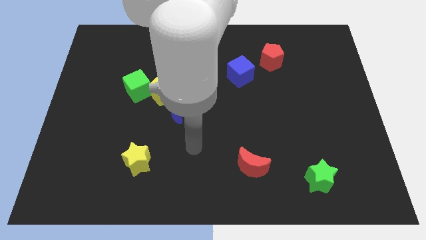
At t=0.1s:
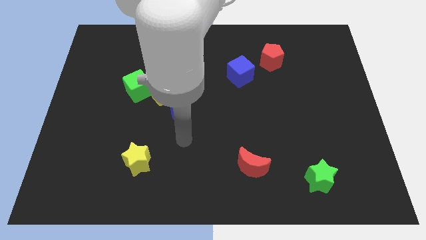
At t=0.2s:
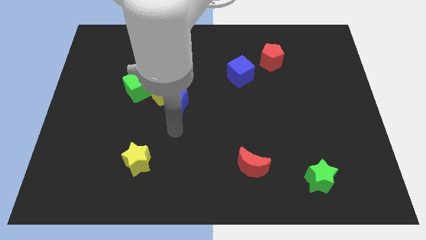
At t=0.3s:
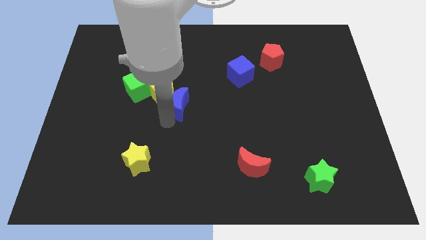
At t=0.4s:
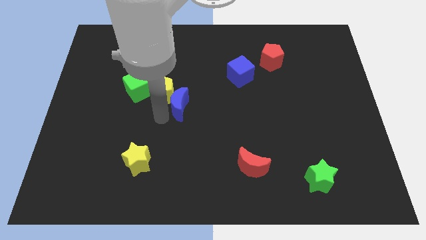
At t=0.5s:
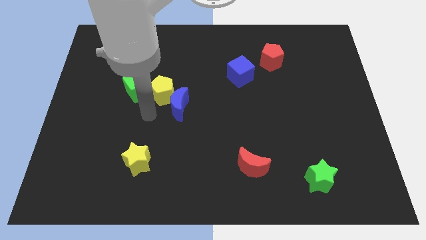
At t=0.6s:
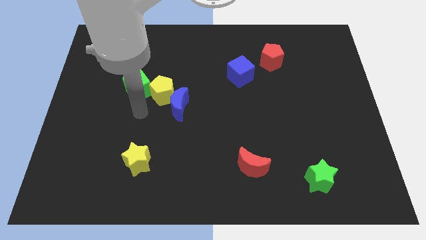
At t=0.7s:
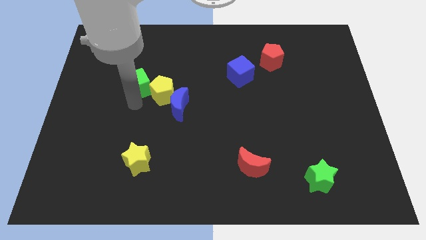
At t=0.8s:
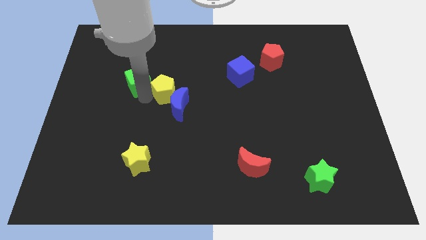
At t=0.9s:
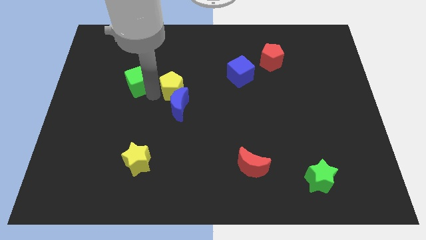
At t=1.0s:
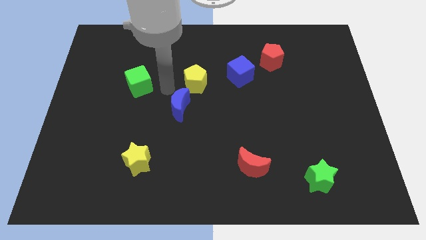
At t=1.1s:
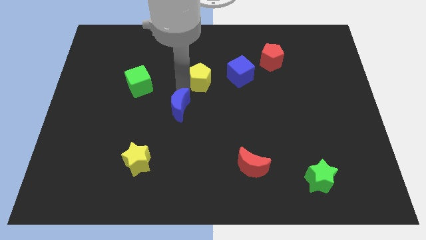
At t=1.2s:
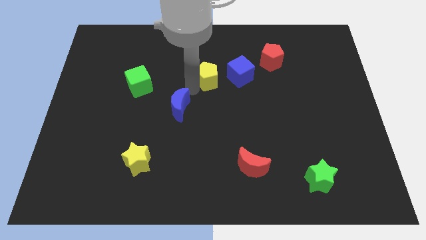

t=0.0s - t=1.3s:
pull the blue moon apart from the yellow pentagon

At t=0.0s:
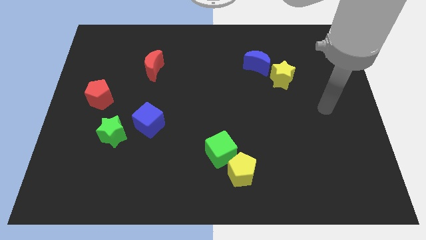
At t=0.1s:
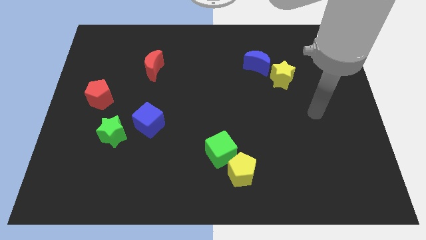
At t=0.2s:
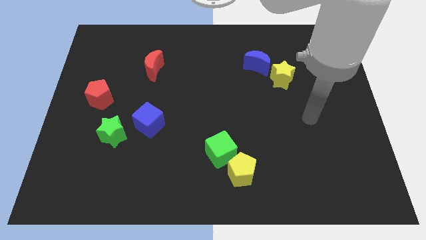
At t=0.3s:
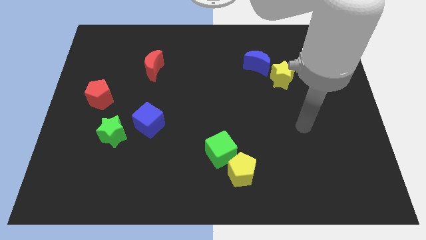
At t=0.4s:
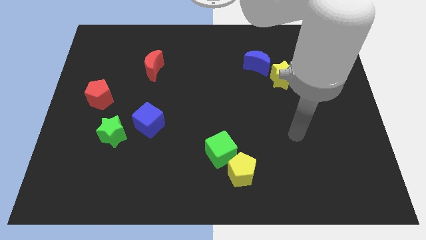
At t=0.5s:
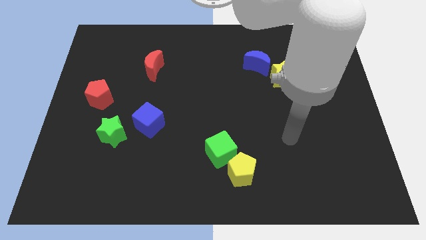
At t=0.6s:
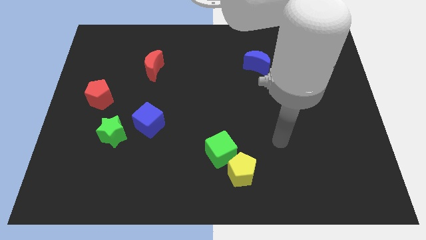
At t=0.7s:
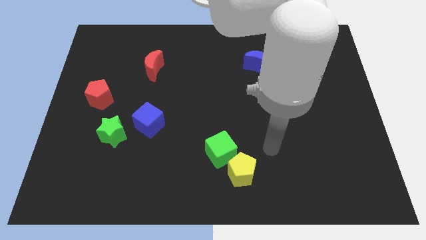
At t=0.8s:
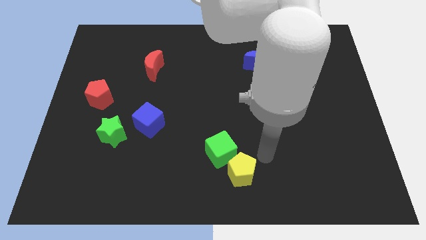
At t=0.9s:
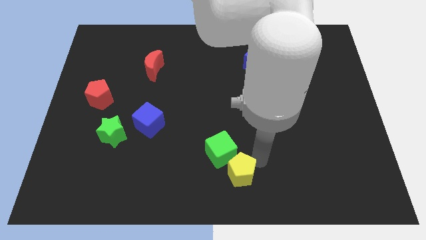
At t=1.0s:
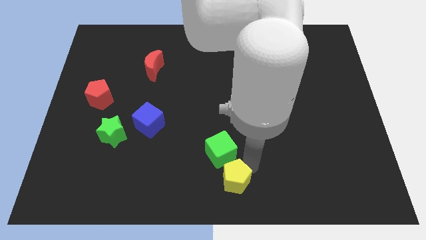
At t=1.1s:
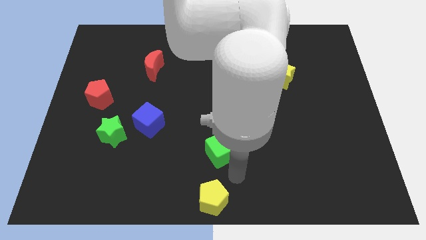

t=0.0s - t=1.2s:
separate the green cube from the yellow pentagon

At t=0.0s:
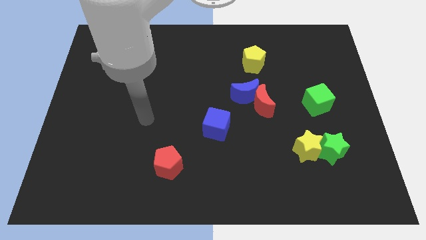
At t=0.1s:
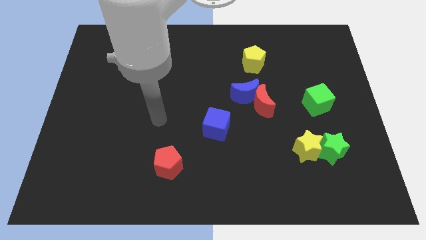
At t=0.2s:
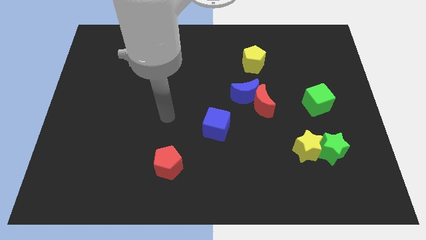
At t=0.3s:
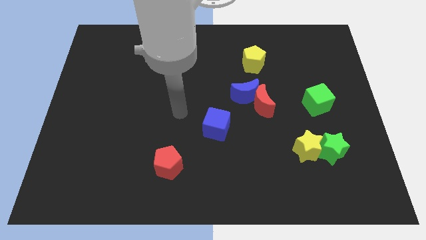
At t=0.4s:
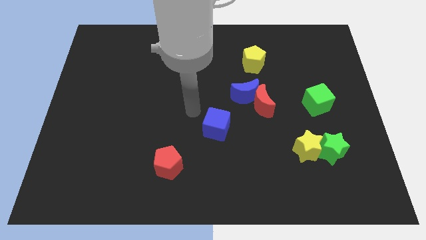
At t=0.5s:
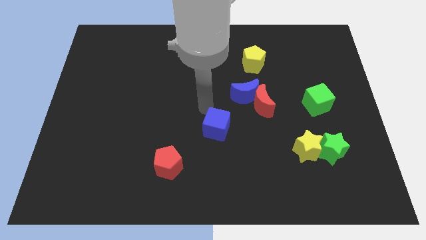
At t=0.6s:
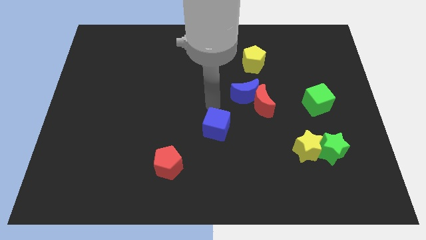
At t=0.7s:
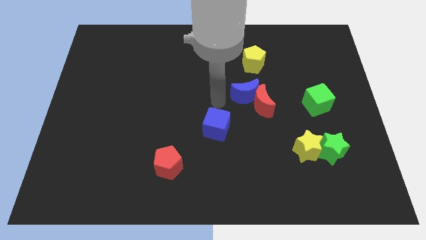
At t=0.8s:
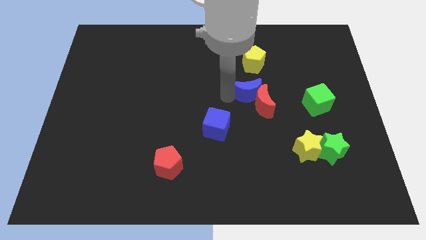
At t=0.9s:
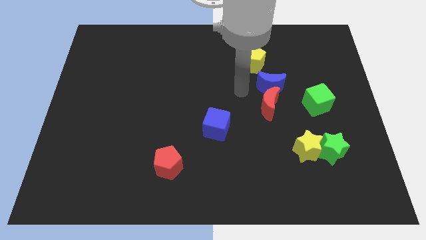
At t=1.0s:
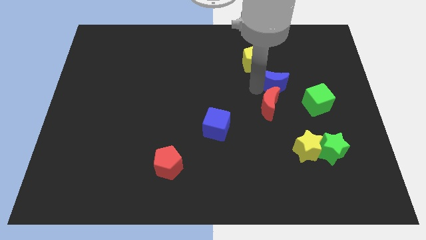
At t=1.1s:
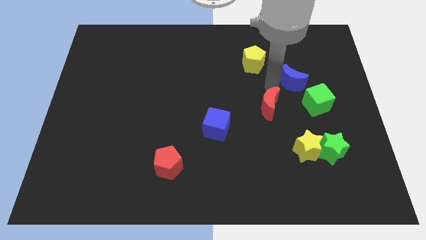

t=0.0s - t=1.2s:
move the red moon away from the blue moon

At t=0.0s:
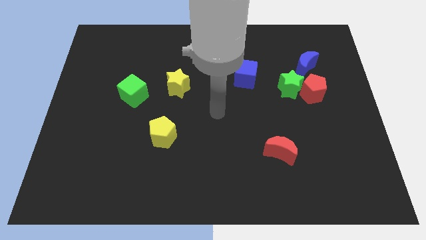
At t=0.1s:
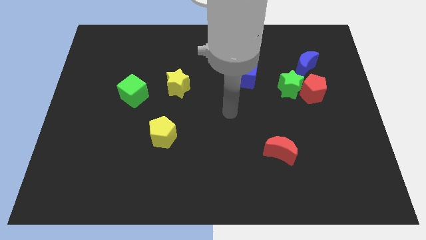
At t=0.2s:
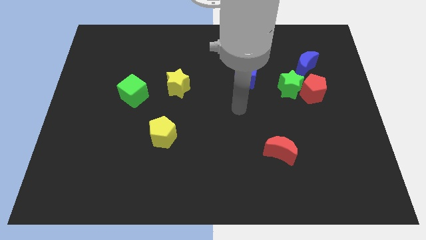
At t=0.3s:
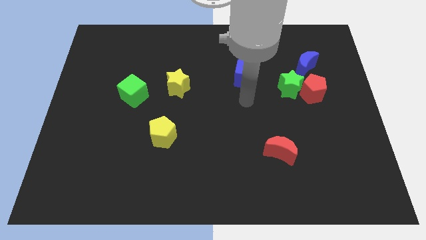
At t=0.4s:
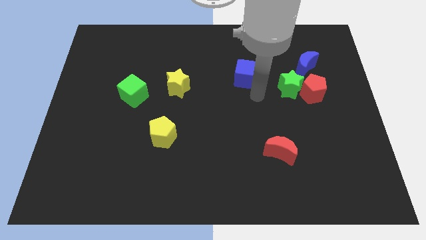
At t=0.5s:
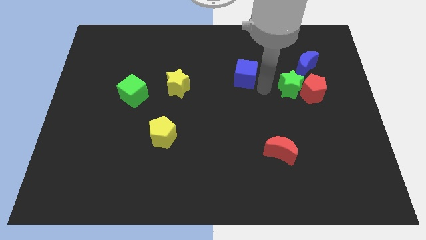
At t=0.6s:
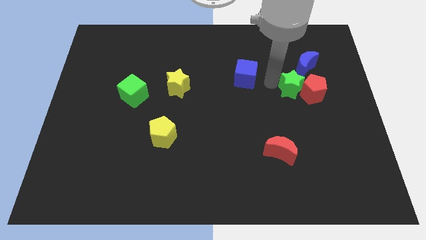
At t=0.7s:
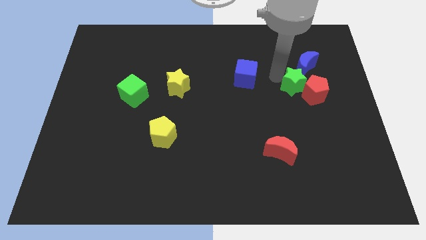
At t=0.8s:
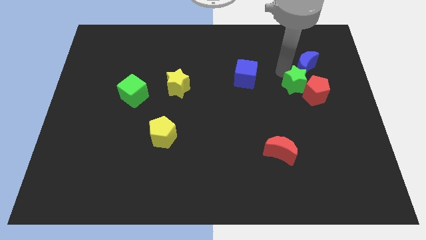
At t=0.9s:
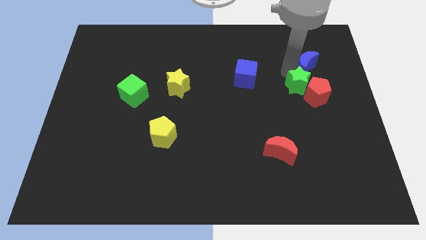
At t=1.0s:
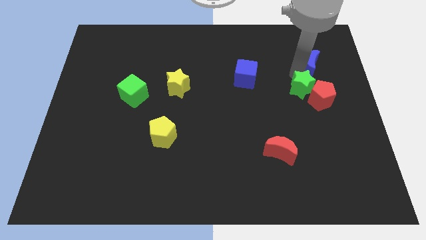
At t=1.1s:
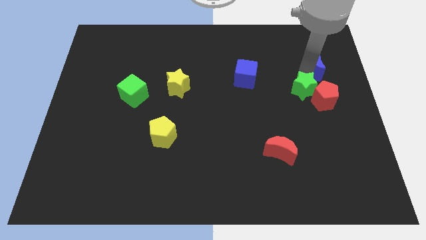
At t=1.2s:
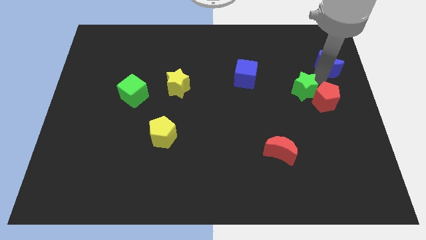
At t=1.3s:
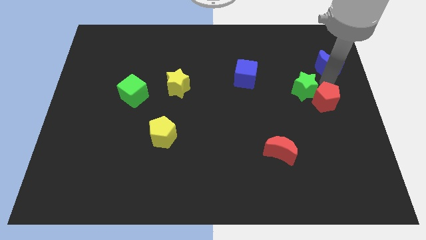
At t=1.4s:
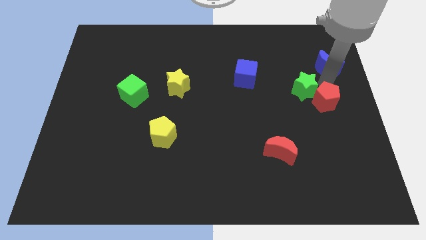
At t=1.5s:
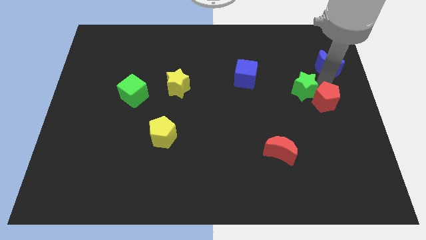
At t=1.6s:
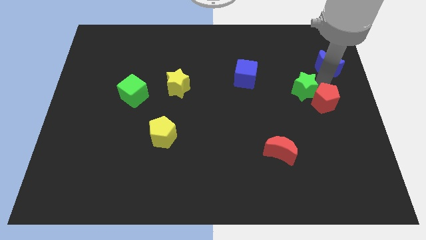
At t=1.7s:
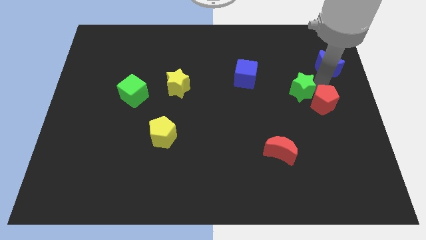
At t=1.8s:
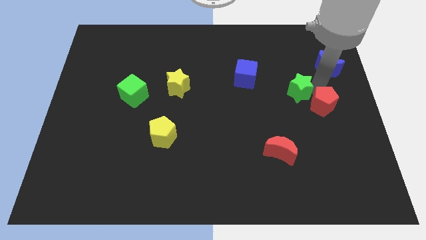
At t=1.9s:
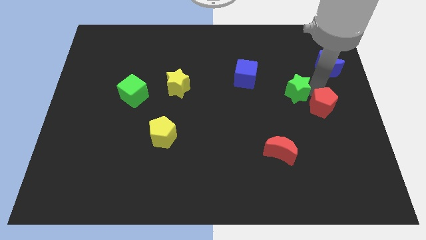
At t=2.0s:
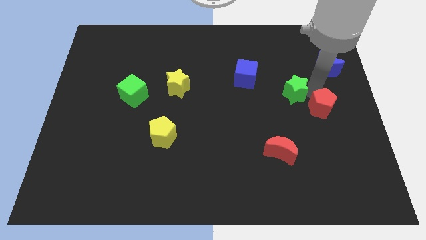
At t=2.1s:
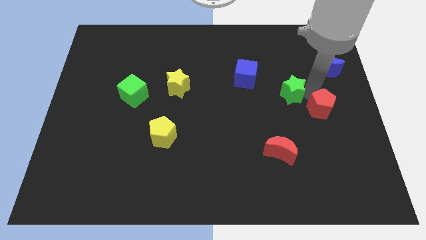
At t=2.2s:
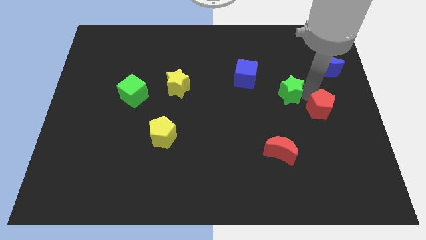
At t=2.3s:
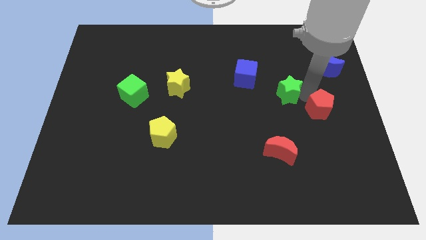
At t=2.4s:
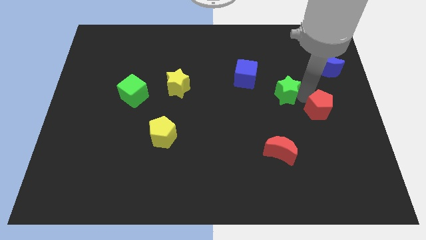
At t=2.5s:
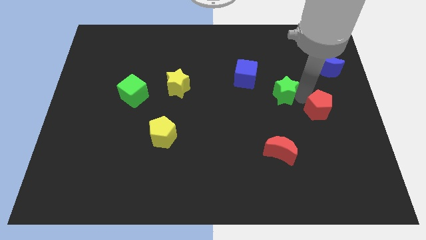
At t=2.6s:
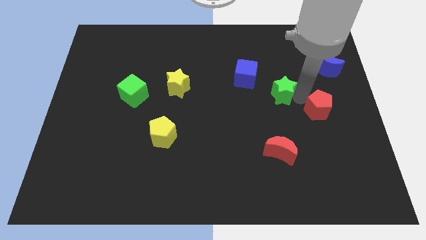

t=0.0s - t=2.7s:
separate the green star from the red pentagon and blue moon

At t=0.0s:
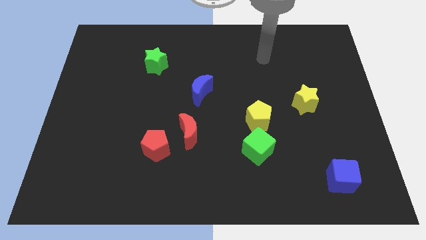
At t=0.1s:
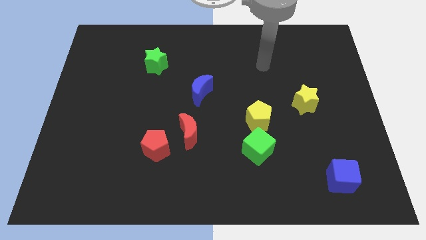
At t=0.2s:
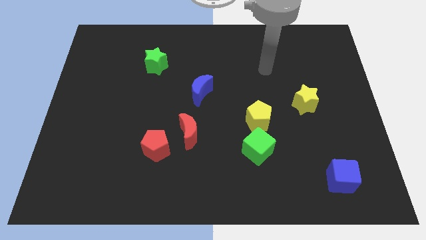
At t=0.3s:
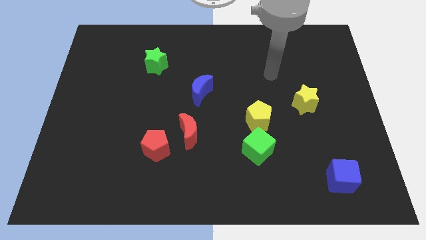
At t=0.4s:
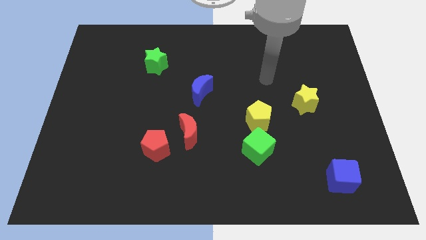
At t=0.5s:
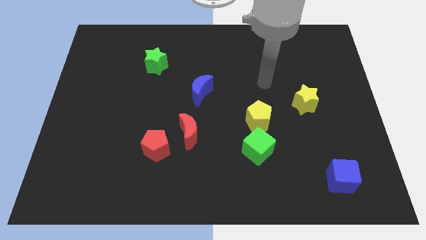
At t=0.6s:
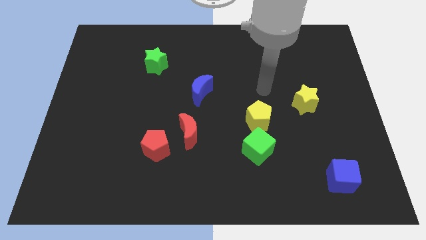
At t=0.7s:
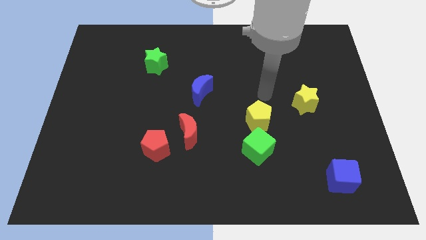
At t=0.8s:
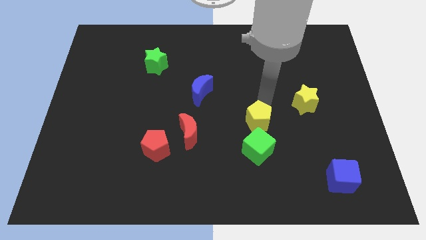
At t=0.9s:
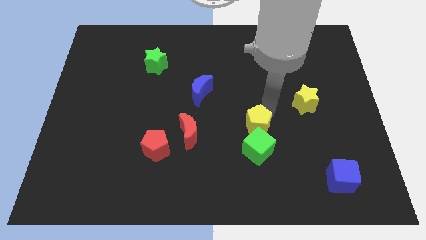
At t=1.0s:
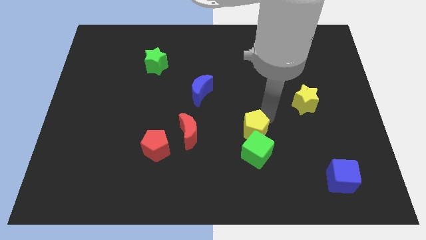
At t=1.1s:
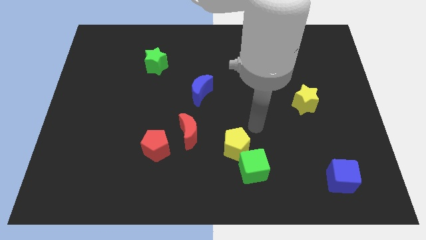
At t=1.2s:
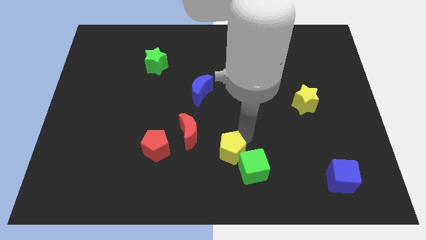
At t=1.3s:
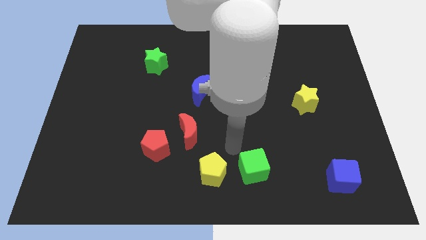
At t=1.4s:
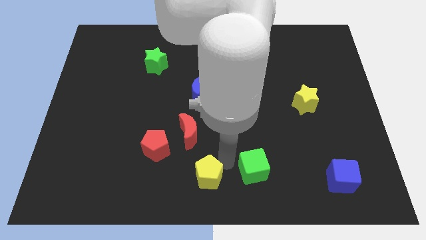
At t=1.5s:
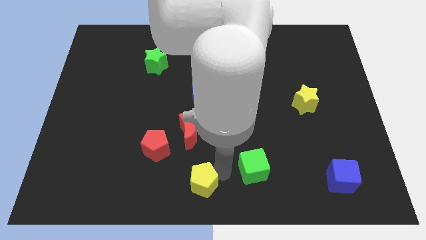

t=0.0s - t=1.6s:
move the green cube away from the yellow pentagon

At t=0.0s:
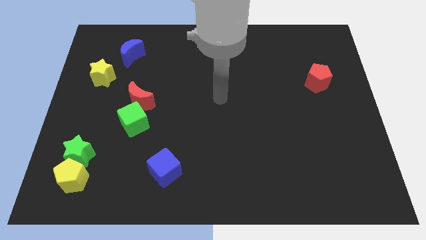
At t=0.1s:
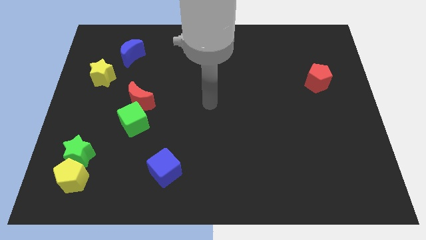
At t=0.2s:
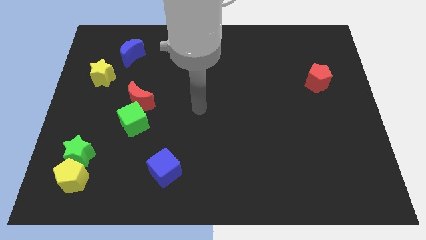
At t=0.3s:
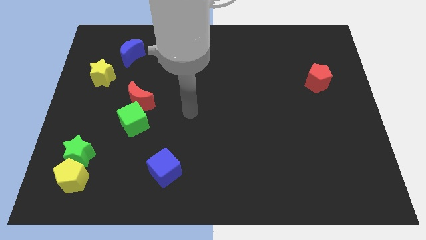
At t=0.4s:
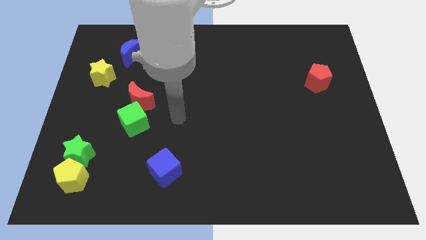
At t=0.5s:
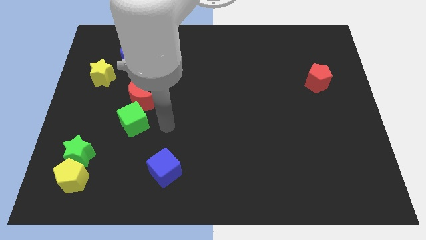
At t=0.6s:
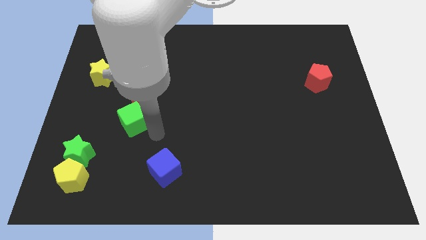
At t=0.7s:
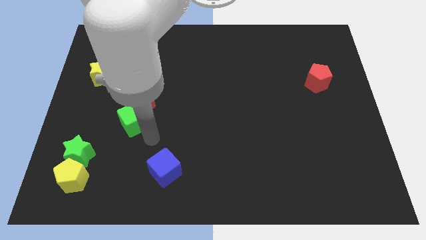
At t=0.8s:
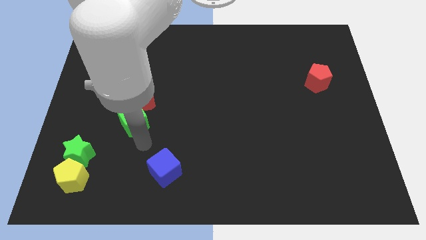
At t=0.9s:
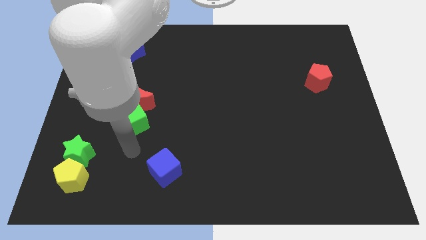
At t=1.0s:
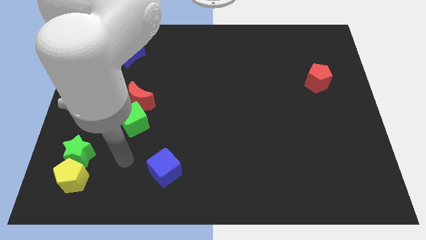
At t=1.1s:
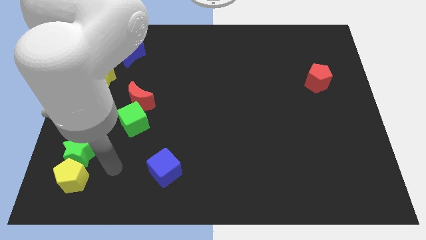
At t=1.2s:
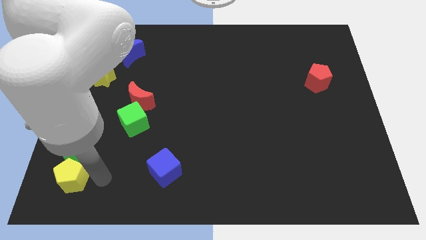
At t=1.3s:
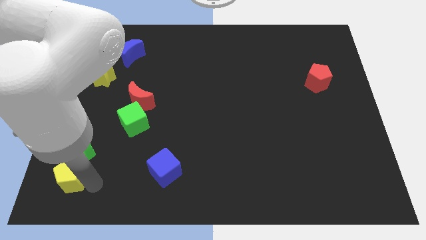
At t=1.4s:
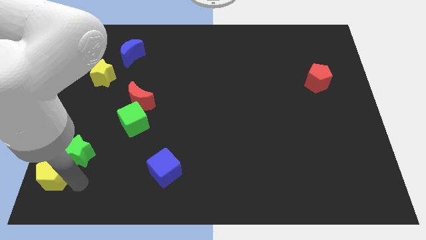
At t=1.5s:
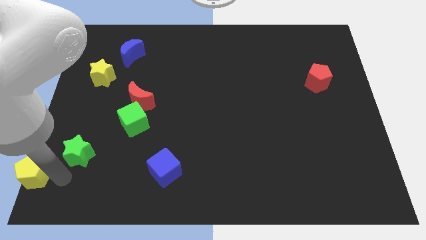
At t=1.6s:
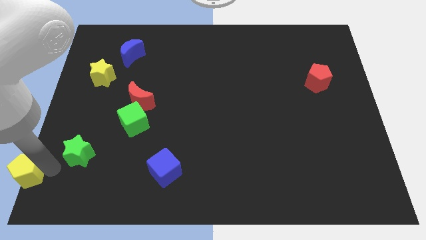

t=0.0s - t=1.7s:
separate the green star from the yellow pentagon
